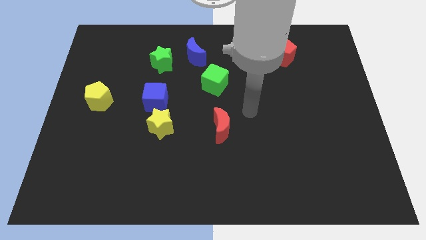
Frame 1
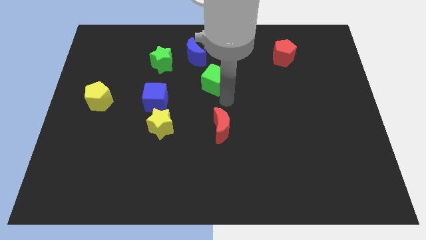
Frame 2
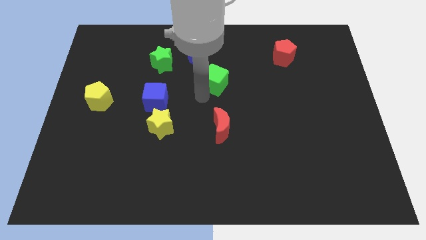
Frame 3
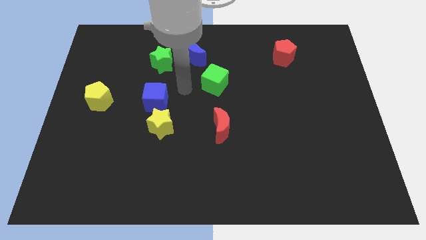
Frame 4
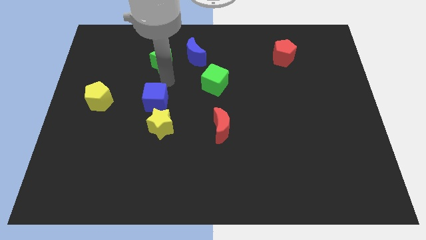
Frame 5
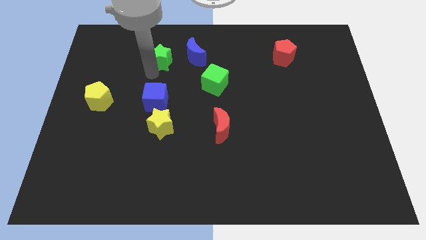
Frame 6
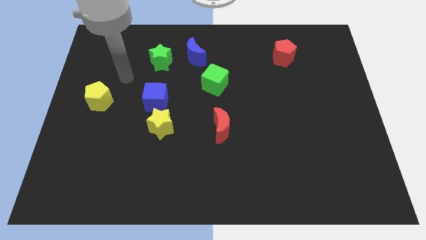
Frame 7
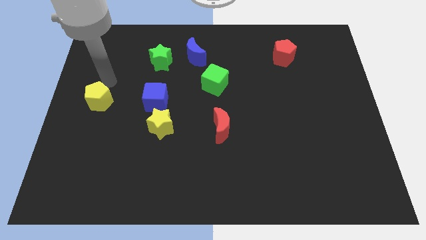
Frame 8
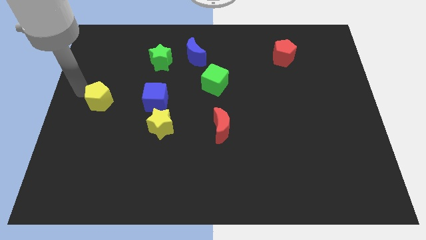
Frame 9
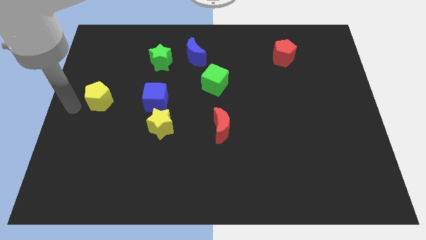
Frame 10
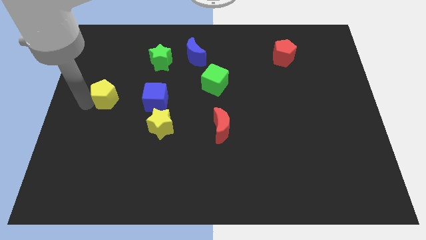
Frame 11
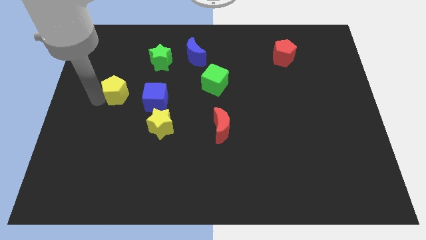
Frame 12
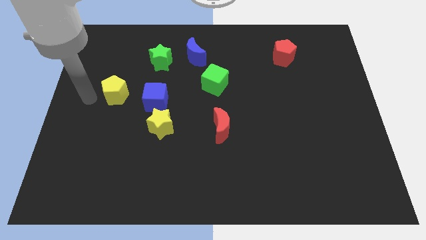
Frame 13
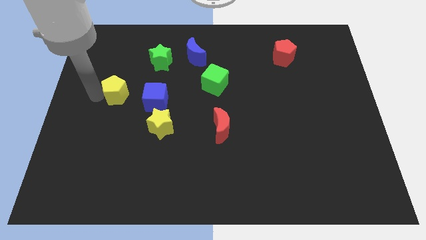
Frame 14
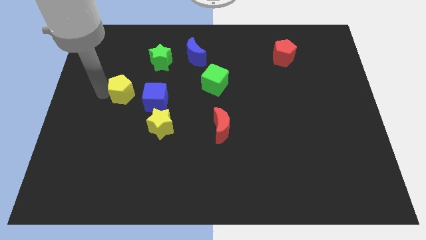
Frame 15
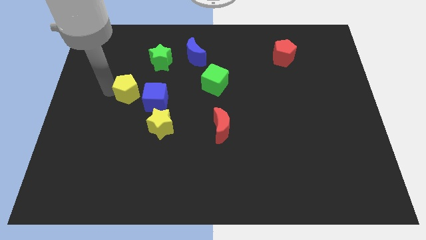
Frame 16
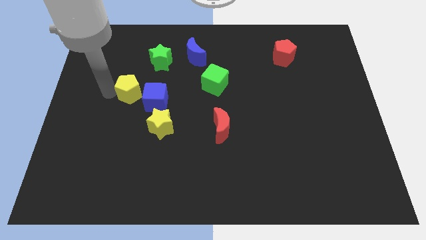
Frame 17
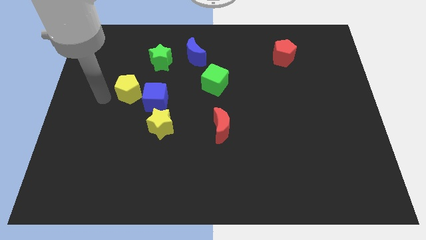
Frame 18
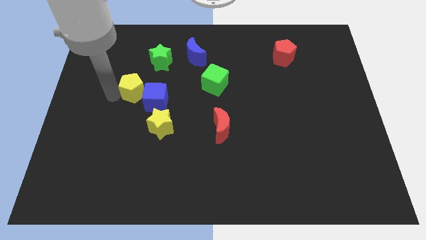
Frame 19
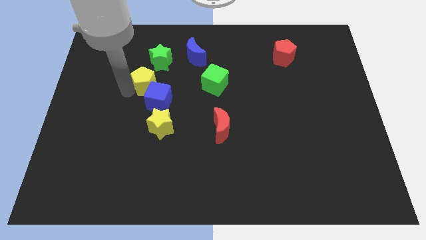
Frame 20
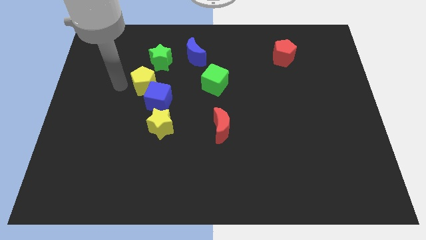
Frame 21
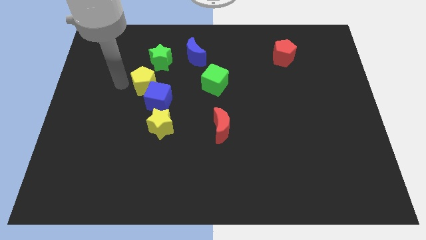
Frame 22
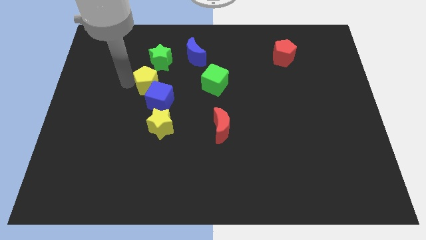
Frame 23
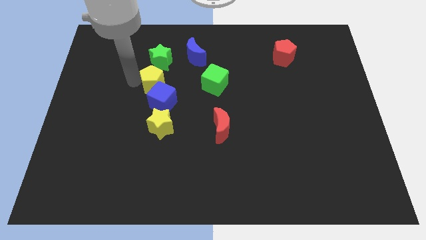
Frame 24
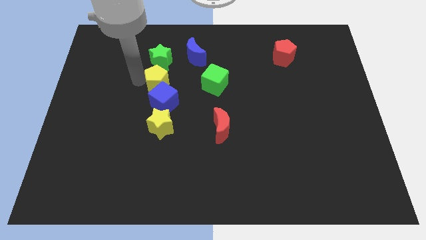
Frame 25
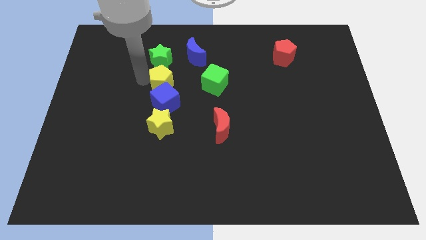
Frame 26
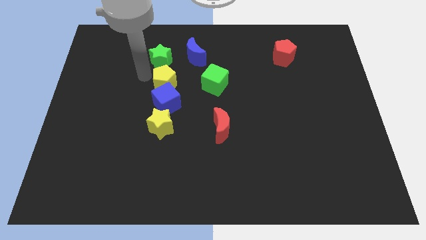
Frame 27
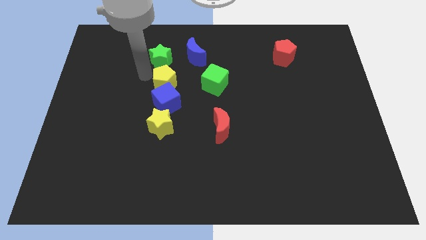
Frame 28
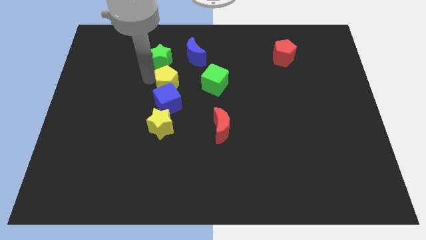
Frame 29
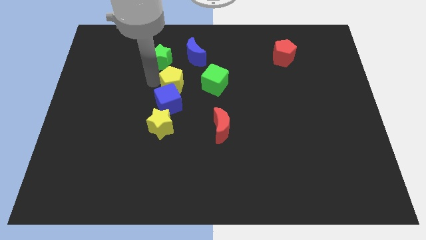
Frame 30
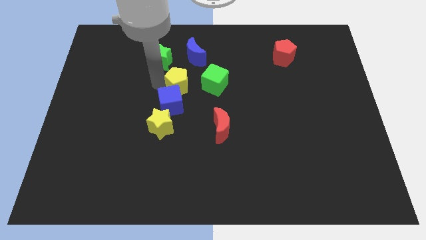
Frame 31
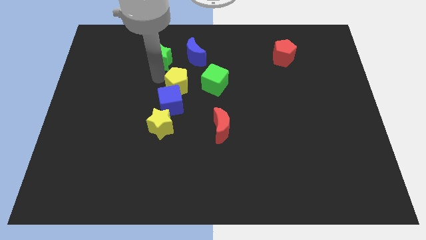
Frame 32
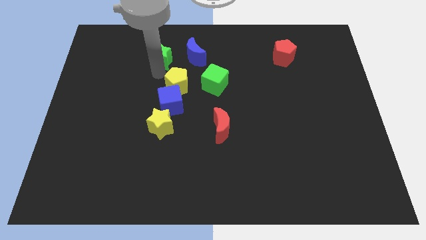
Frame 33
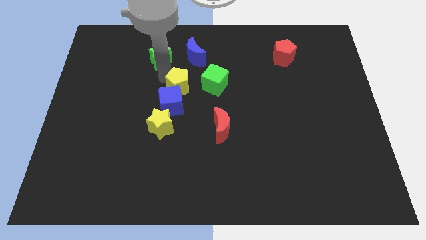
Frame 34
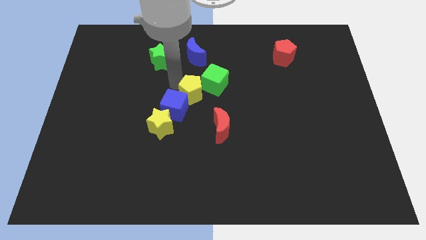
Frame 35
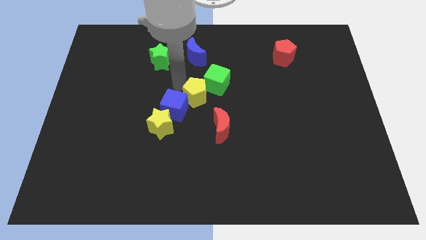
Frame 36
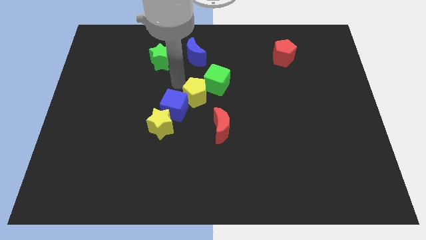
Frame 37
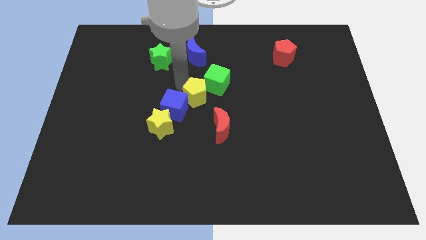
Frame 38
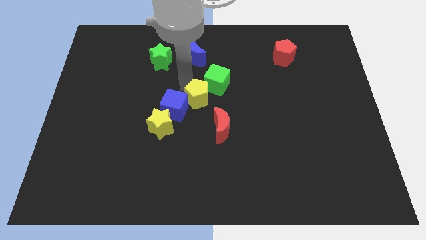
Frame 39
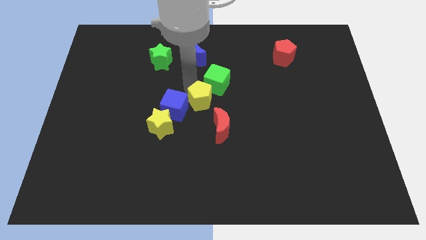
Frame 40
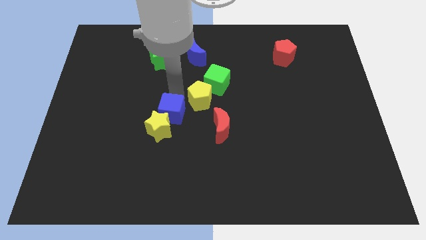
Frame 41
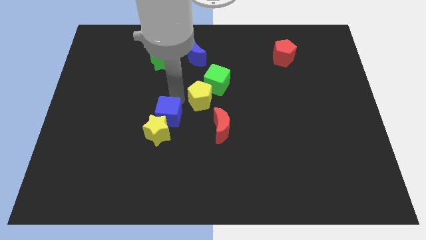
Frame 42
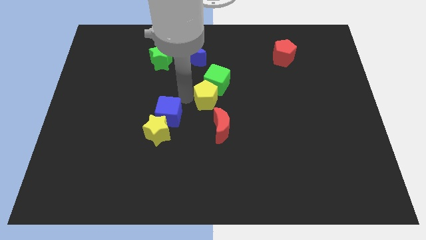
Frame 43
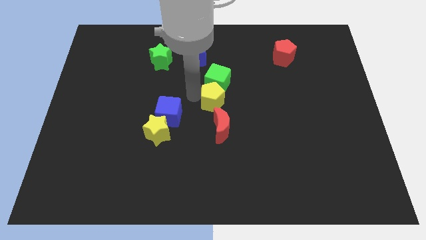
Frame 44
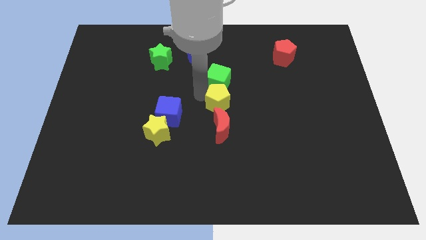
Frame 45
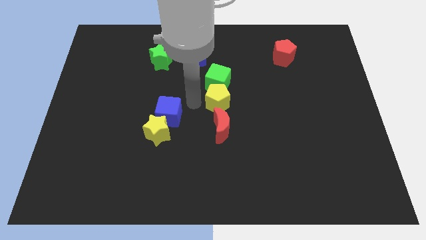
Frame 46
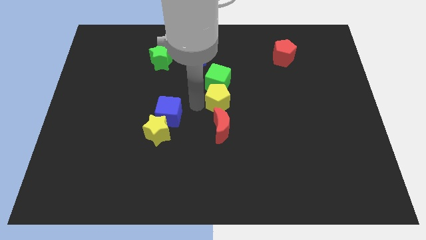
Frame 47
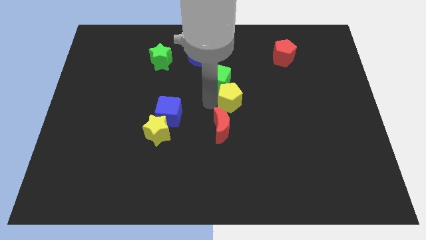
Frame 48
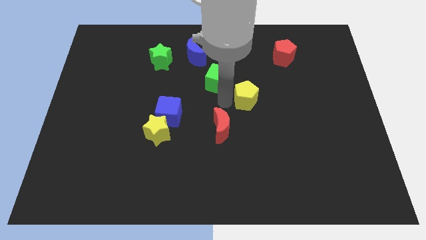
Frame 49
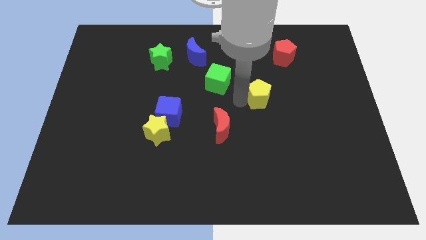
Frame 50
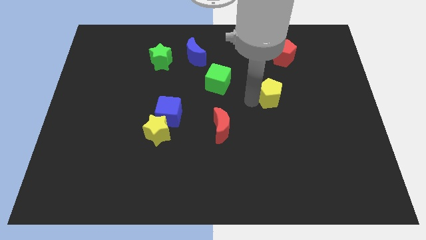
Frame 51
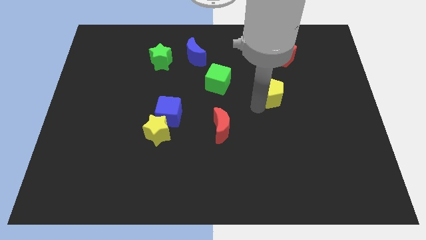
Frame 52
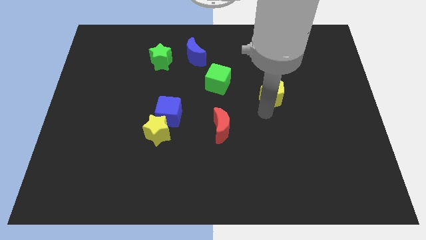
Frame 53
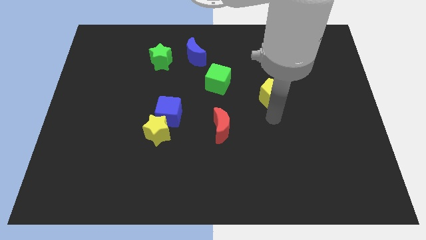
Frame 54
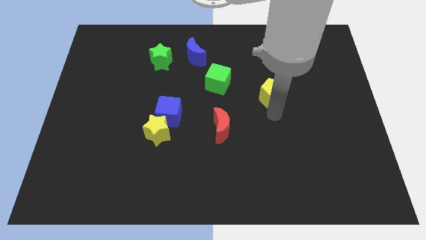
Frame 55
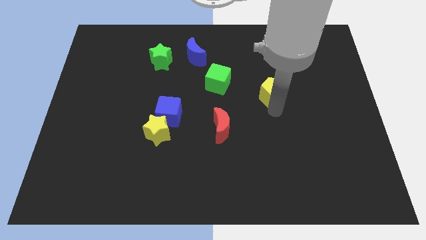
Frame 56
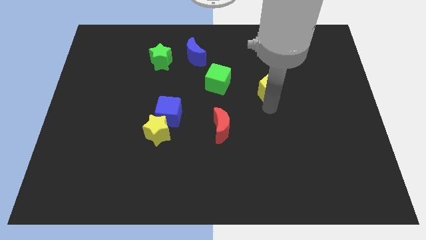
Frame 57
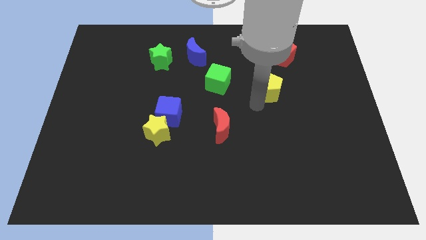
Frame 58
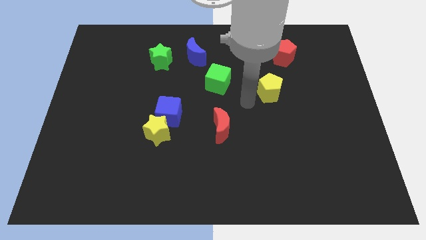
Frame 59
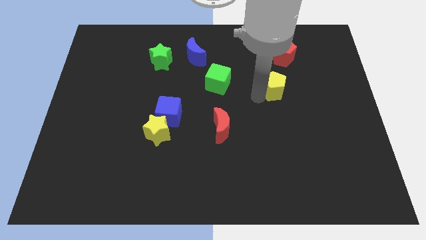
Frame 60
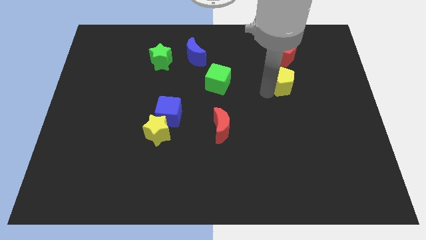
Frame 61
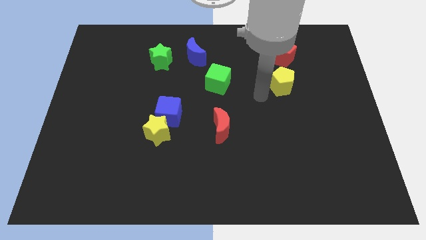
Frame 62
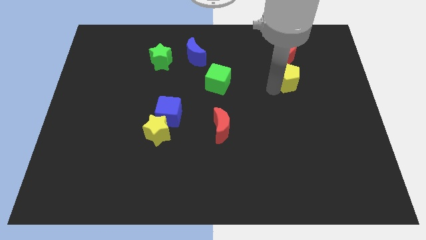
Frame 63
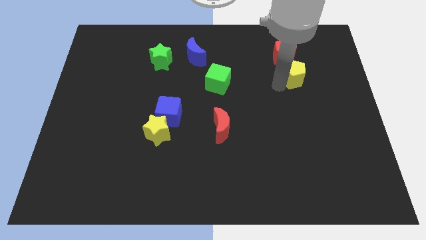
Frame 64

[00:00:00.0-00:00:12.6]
push the yellow pentagon diagonally down and to the right of the red pentagon

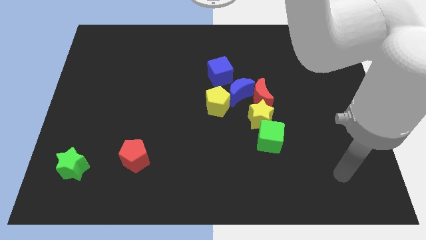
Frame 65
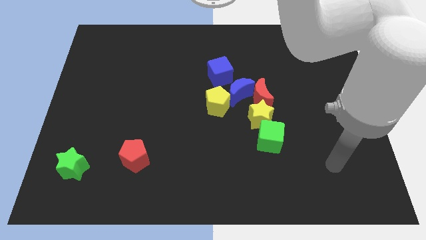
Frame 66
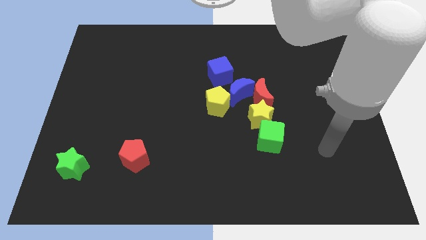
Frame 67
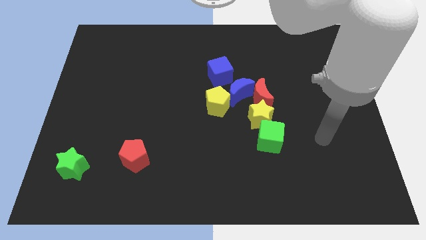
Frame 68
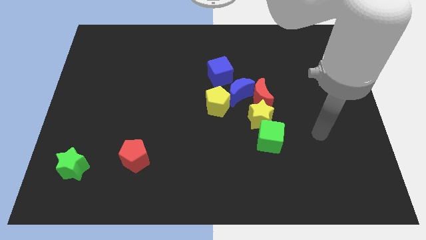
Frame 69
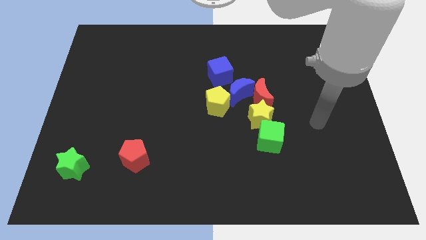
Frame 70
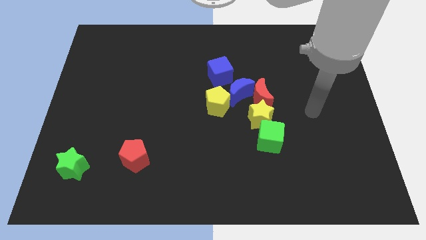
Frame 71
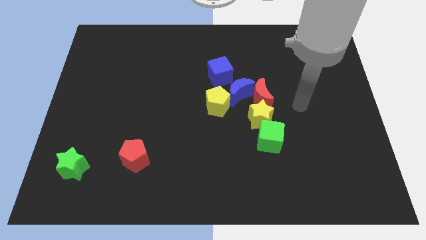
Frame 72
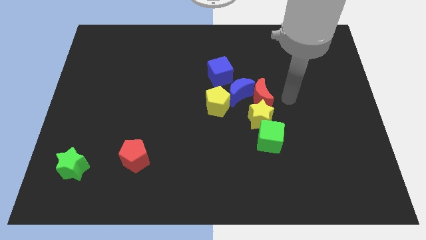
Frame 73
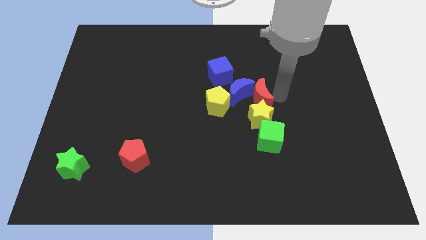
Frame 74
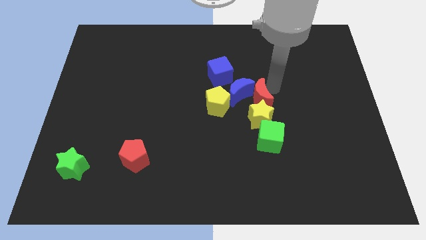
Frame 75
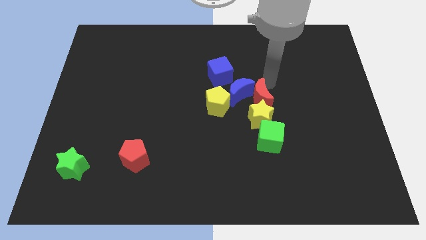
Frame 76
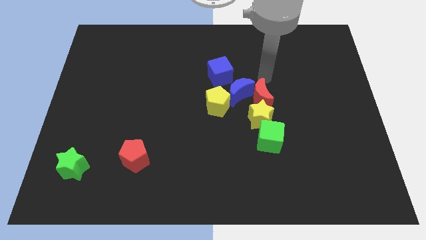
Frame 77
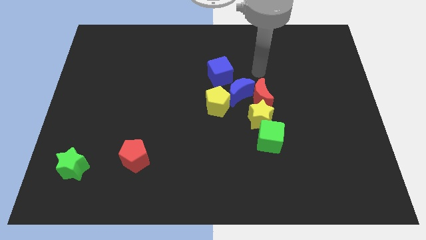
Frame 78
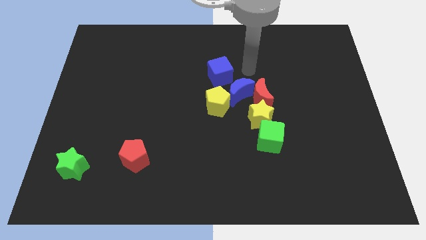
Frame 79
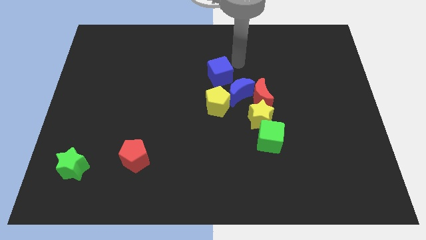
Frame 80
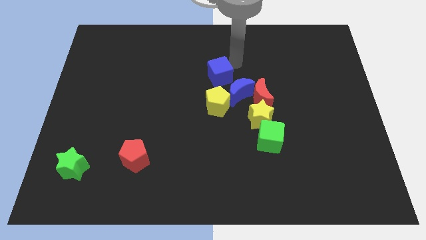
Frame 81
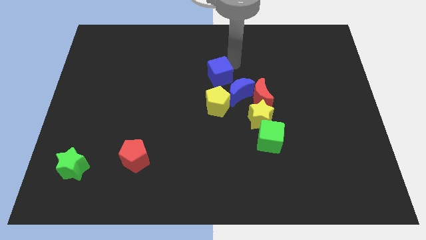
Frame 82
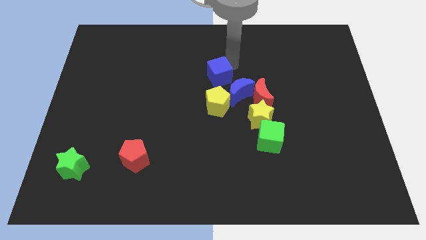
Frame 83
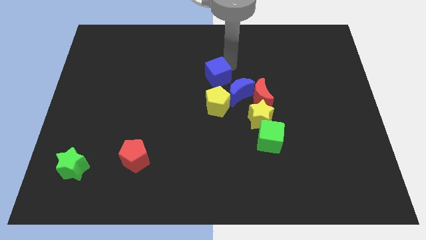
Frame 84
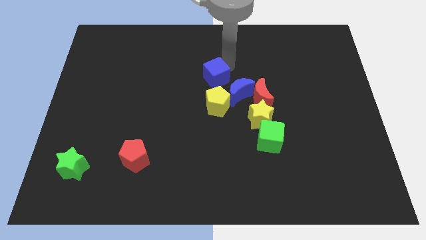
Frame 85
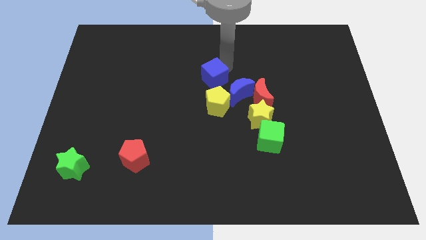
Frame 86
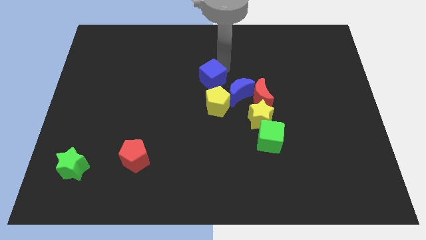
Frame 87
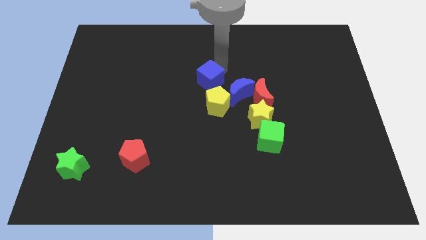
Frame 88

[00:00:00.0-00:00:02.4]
slide the blue cube just left of the blue moon
